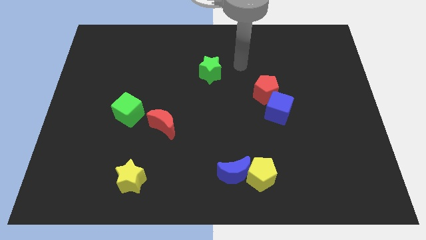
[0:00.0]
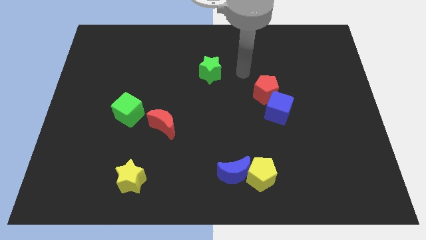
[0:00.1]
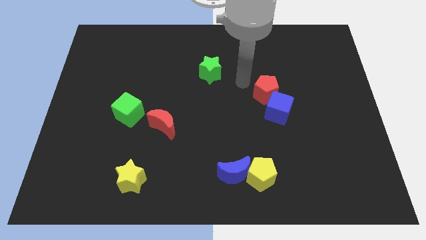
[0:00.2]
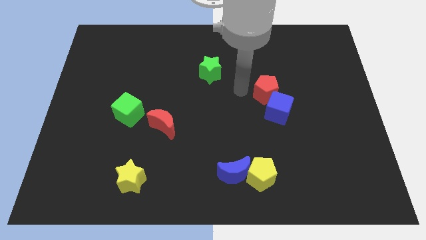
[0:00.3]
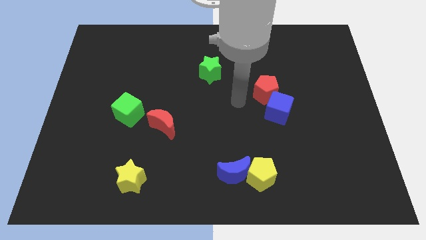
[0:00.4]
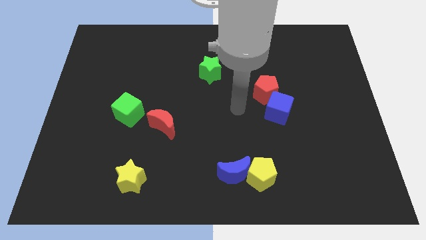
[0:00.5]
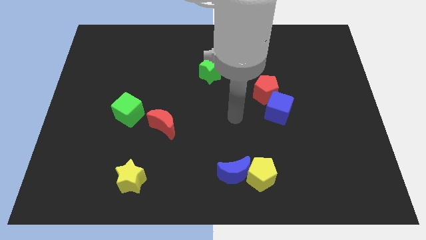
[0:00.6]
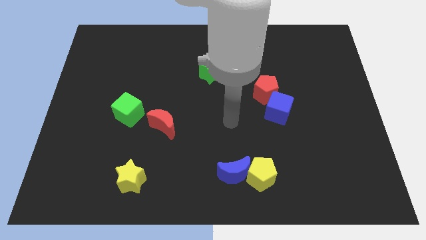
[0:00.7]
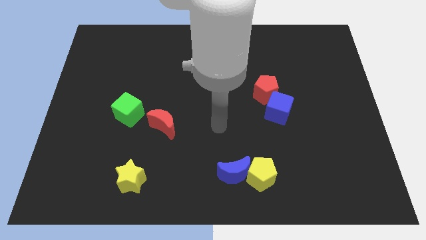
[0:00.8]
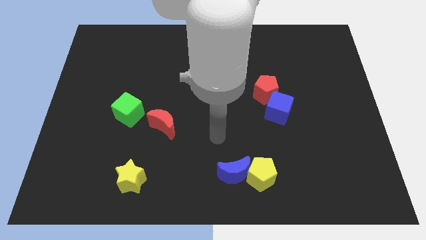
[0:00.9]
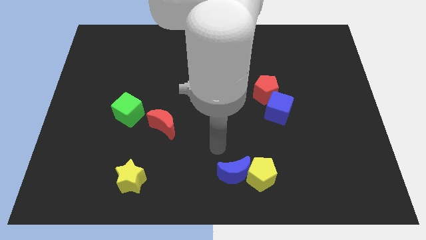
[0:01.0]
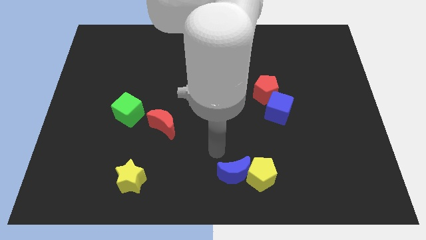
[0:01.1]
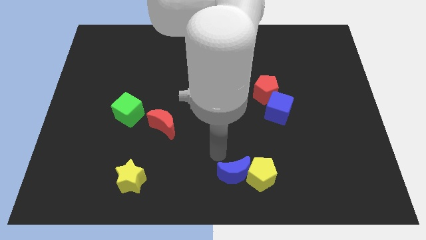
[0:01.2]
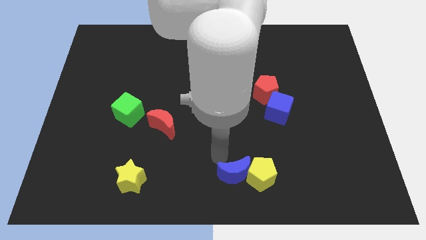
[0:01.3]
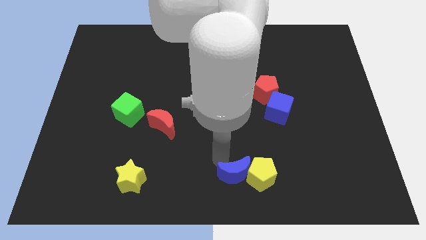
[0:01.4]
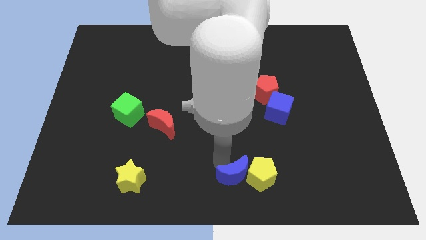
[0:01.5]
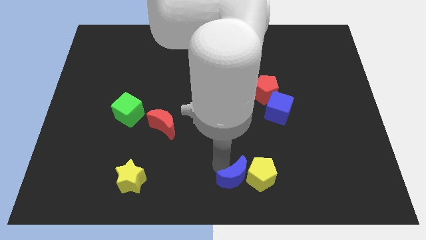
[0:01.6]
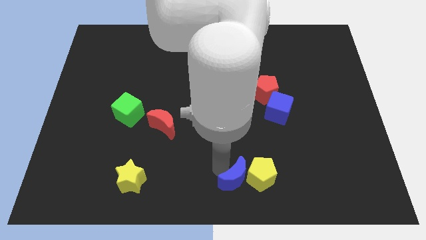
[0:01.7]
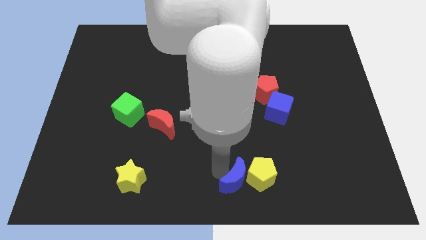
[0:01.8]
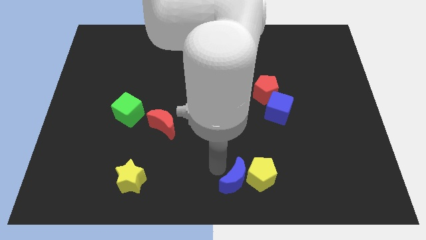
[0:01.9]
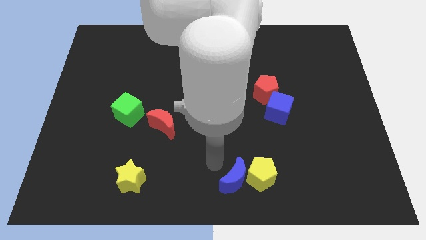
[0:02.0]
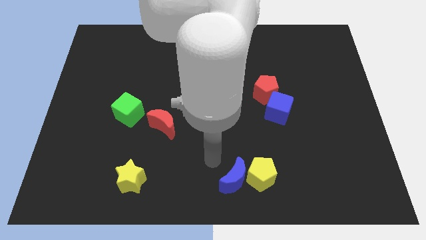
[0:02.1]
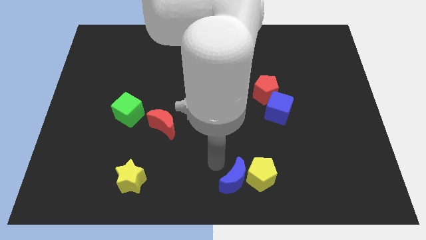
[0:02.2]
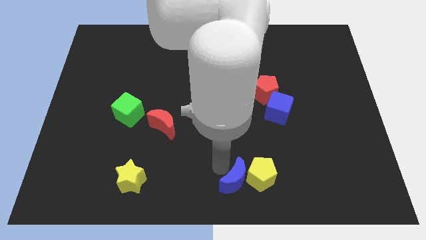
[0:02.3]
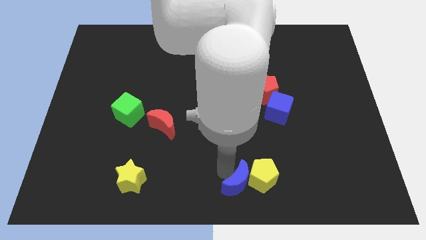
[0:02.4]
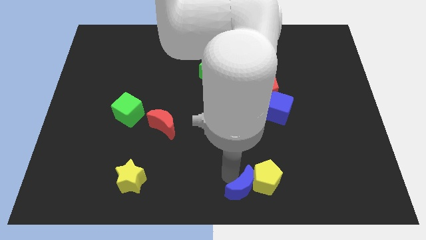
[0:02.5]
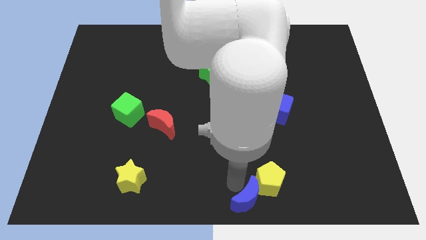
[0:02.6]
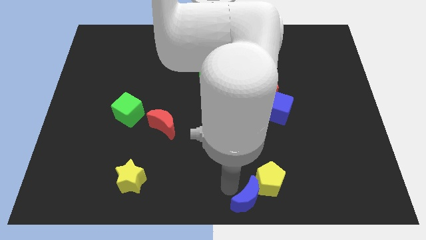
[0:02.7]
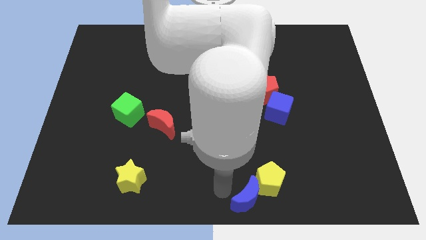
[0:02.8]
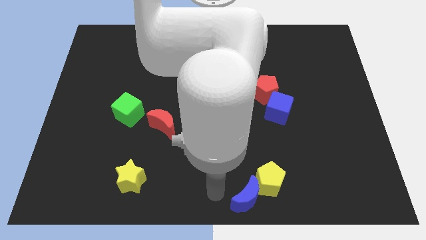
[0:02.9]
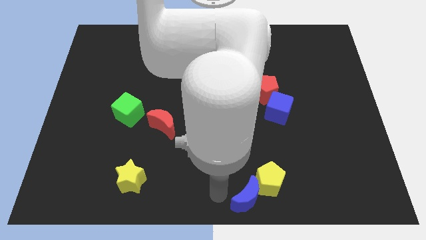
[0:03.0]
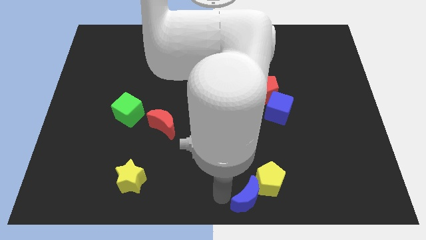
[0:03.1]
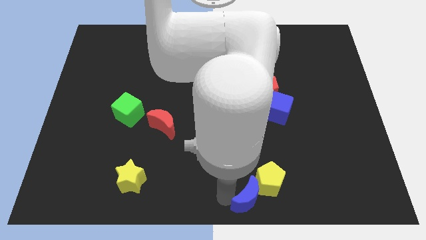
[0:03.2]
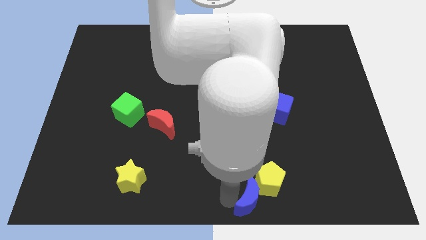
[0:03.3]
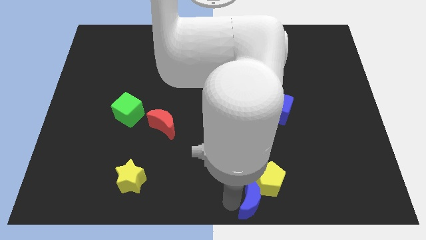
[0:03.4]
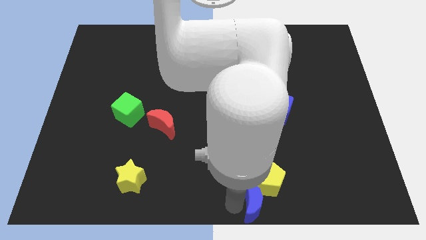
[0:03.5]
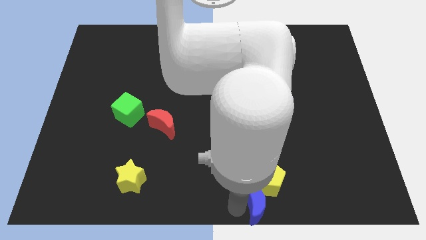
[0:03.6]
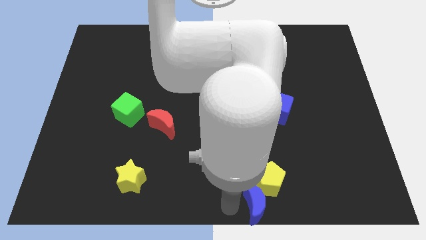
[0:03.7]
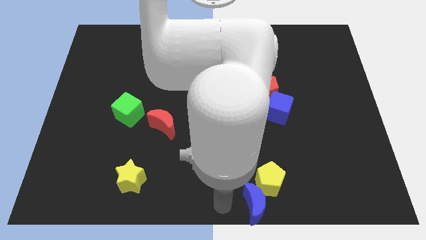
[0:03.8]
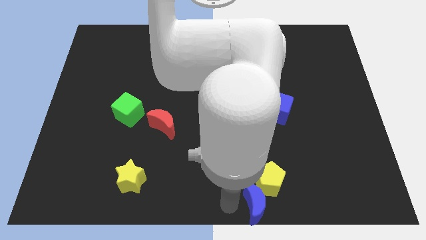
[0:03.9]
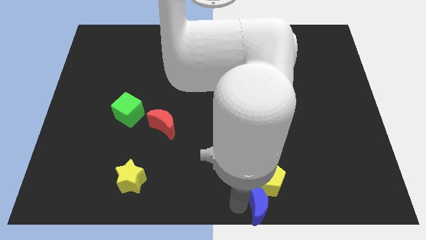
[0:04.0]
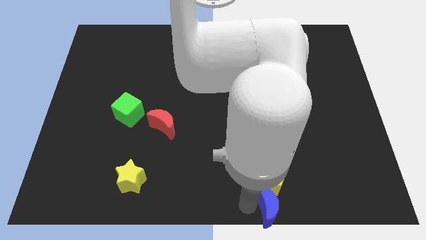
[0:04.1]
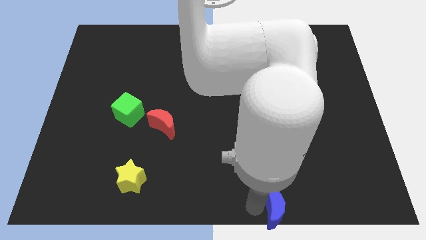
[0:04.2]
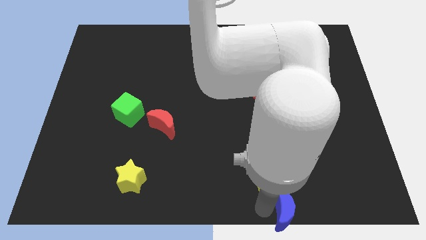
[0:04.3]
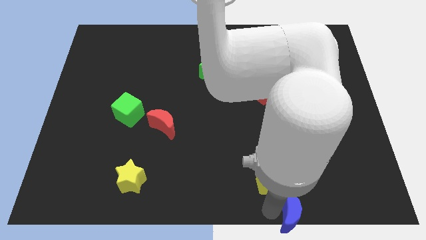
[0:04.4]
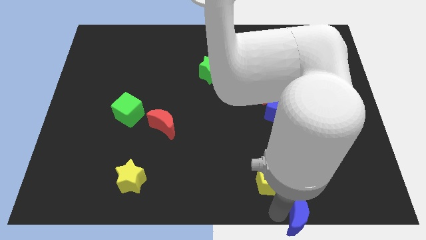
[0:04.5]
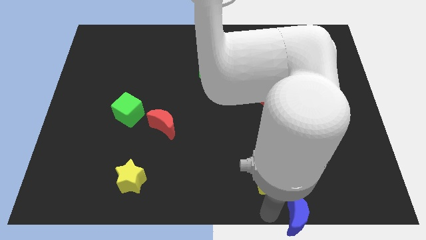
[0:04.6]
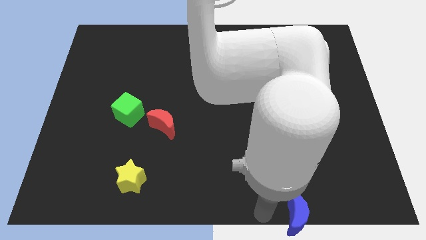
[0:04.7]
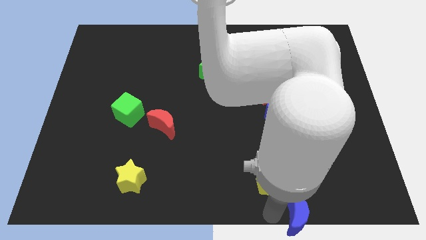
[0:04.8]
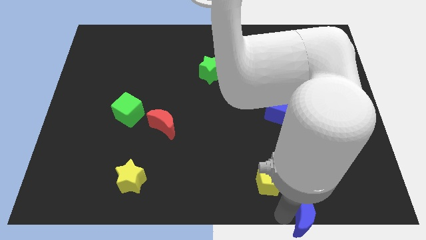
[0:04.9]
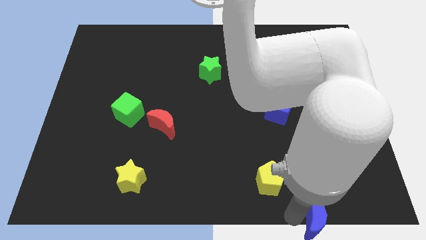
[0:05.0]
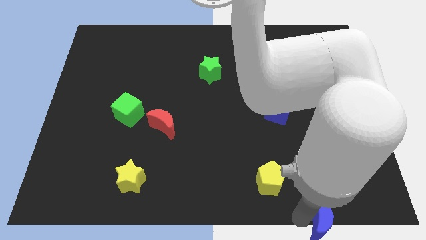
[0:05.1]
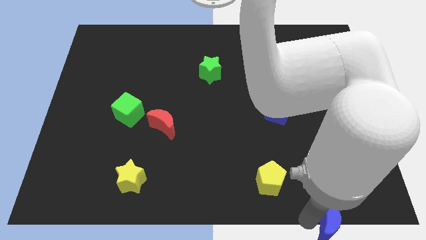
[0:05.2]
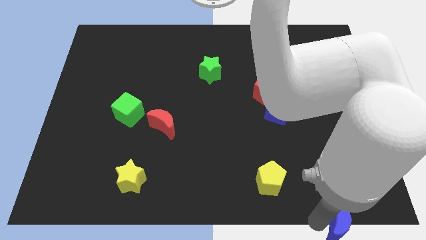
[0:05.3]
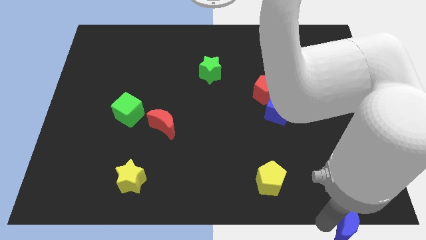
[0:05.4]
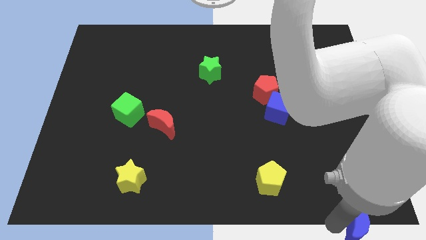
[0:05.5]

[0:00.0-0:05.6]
push the blue moon to the bottom right corner

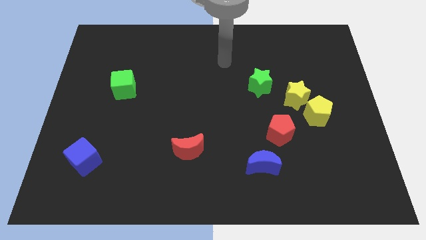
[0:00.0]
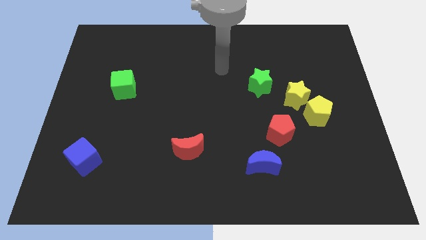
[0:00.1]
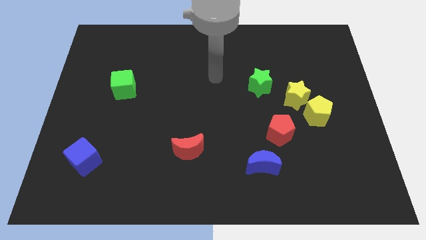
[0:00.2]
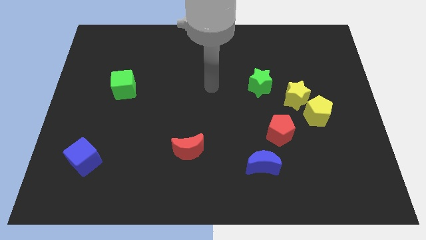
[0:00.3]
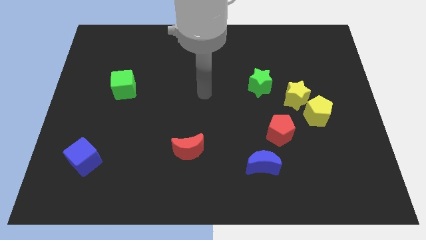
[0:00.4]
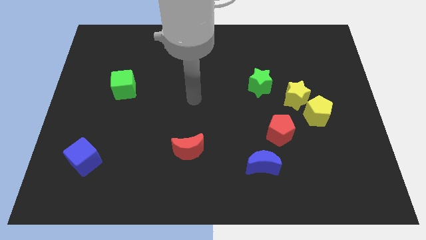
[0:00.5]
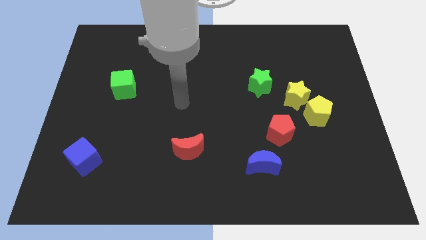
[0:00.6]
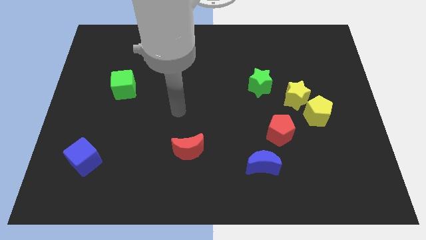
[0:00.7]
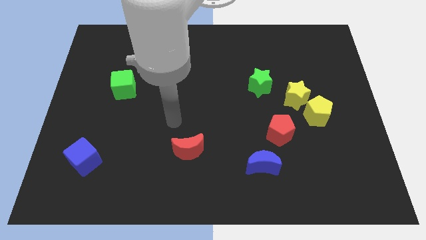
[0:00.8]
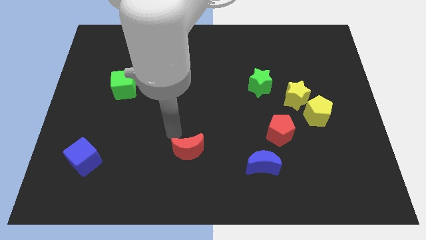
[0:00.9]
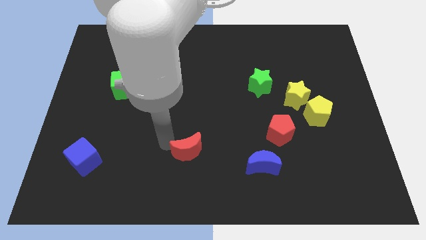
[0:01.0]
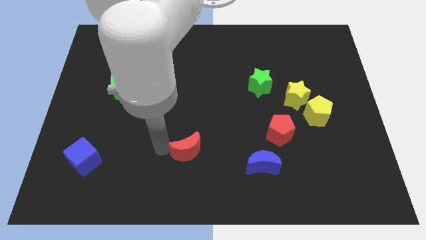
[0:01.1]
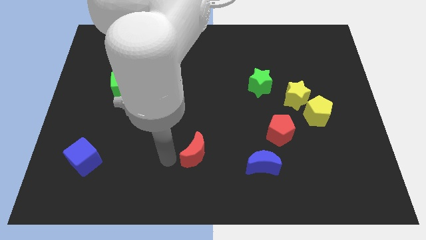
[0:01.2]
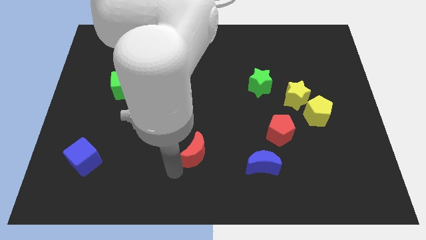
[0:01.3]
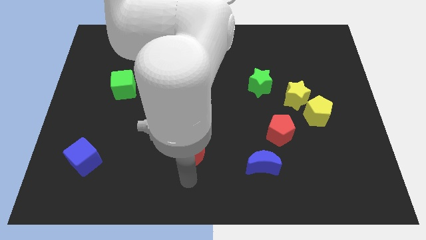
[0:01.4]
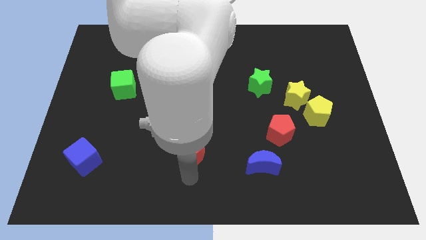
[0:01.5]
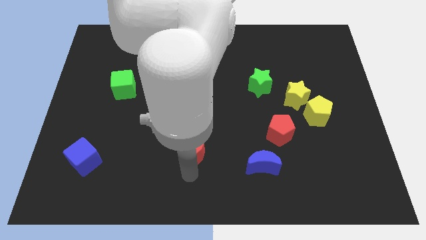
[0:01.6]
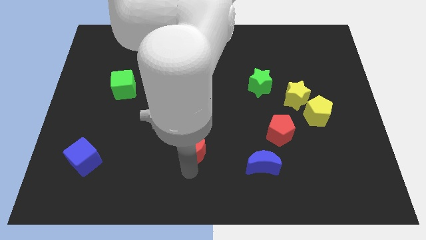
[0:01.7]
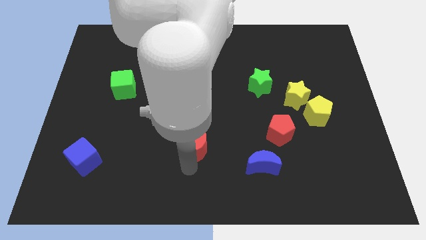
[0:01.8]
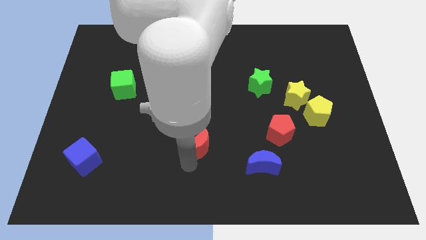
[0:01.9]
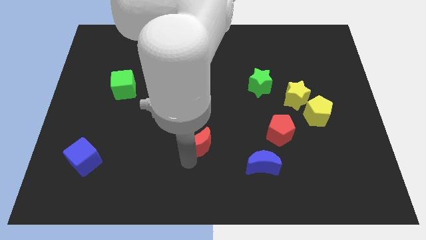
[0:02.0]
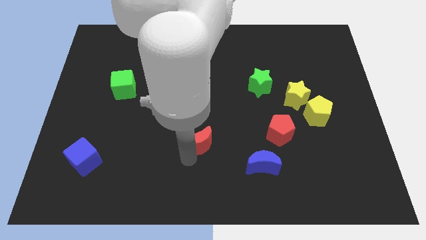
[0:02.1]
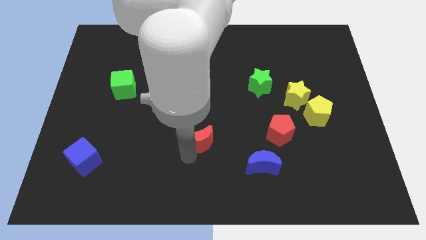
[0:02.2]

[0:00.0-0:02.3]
move the red moon to the middle of the board
